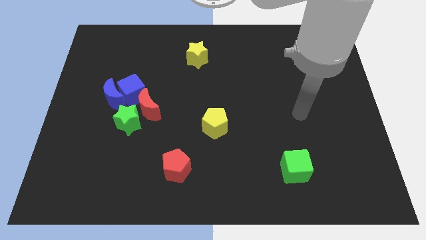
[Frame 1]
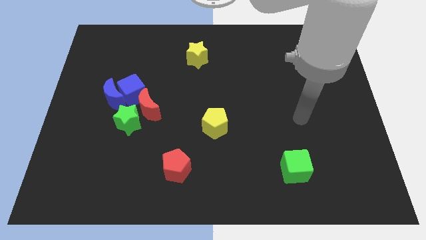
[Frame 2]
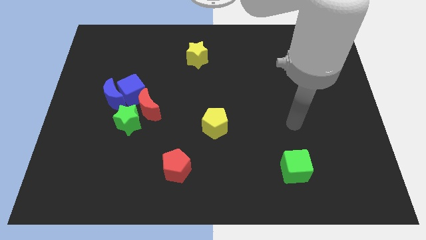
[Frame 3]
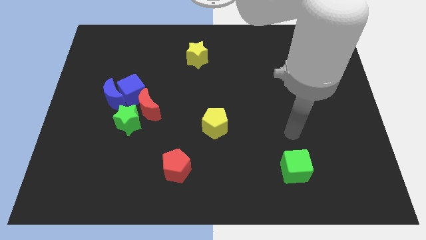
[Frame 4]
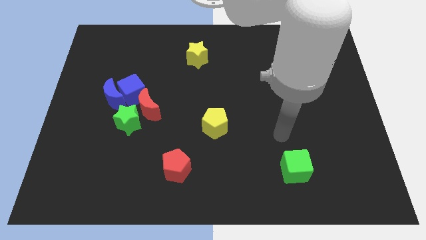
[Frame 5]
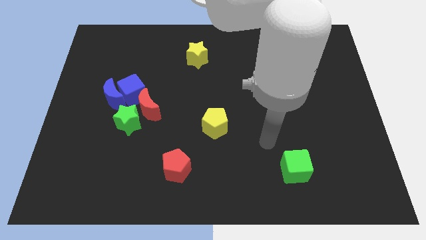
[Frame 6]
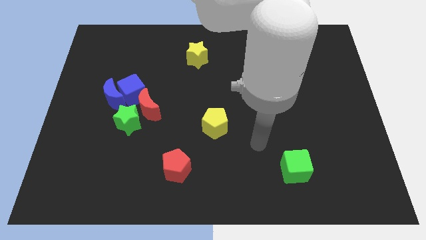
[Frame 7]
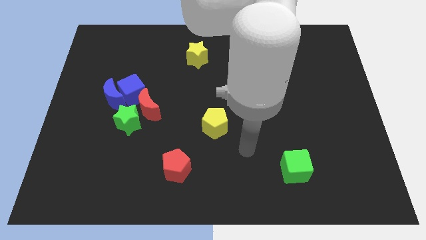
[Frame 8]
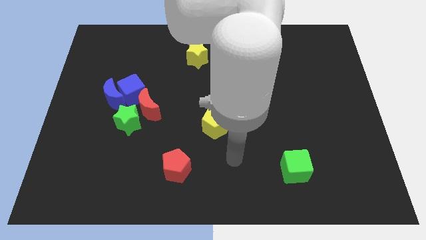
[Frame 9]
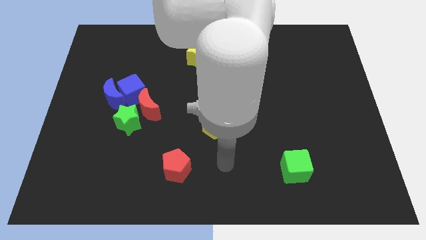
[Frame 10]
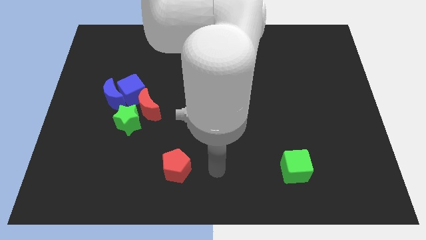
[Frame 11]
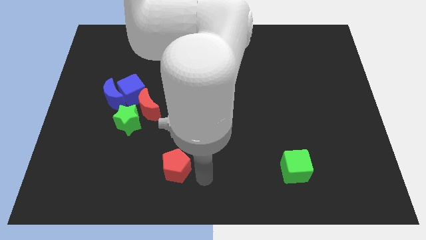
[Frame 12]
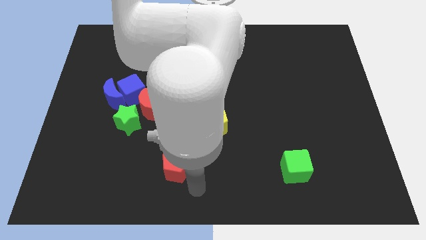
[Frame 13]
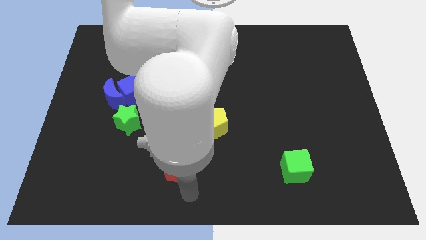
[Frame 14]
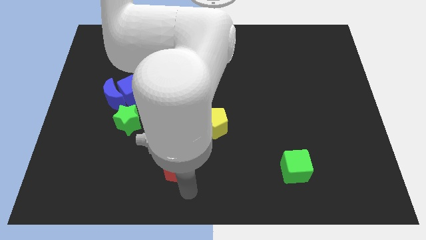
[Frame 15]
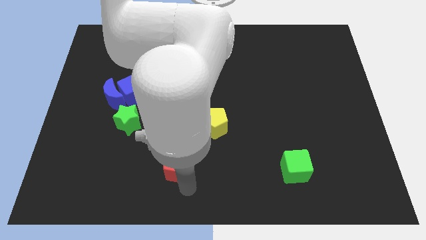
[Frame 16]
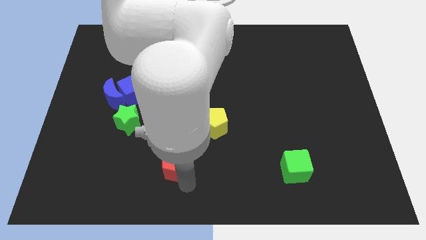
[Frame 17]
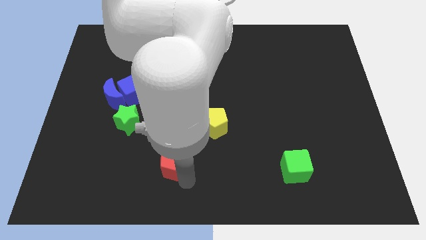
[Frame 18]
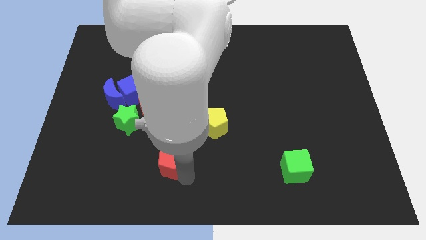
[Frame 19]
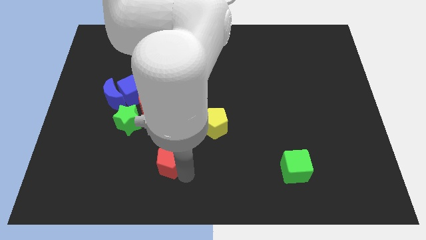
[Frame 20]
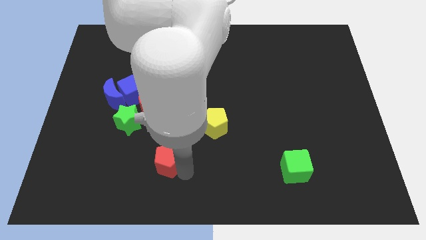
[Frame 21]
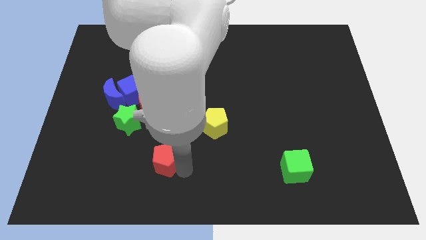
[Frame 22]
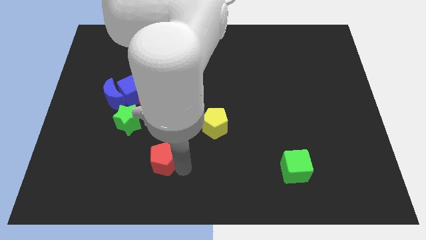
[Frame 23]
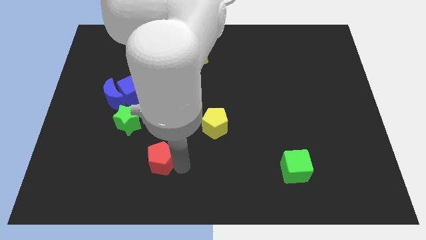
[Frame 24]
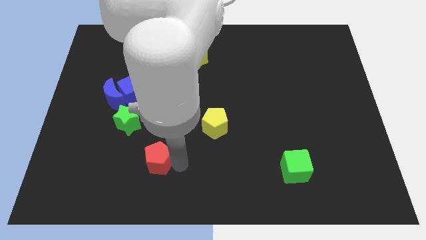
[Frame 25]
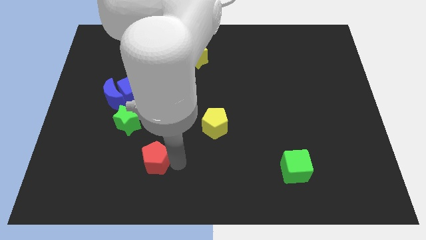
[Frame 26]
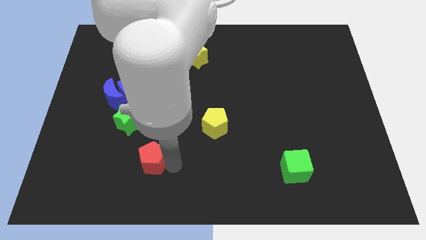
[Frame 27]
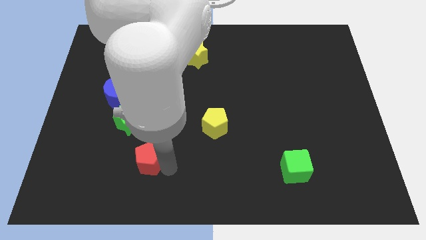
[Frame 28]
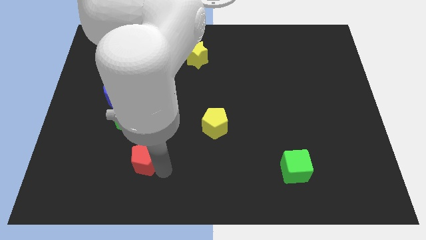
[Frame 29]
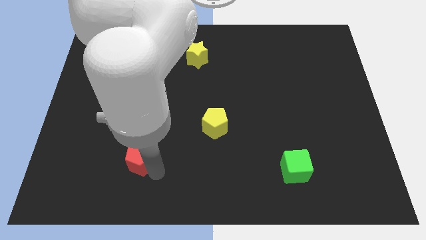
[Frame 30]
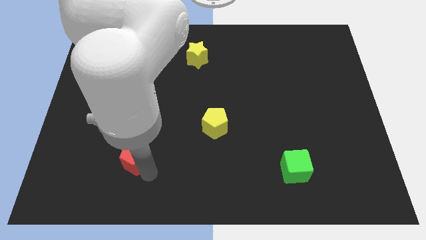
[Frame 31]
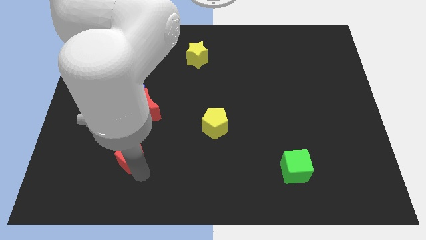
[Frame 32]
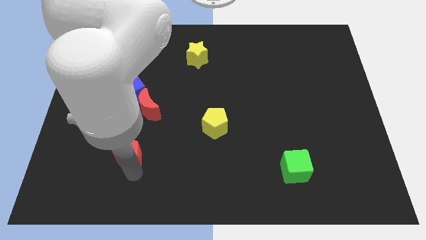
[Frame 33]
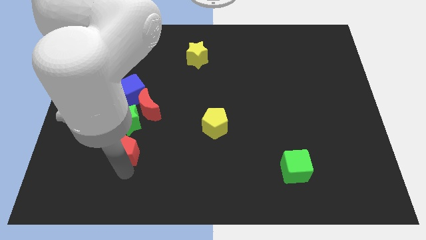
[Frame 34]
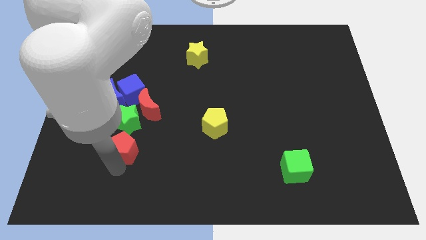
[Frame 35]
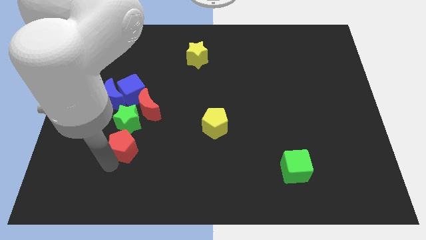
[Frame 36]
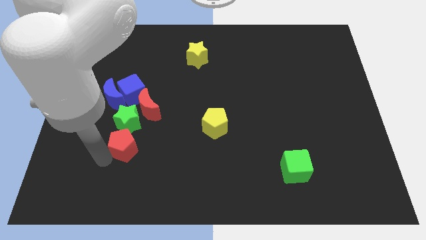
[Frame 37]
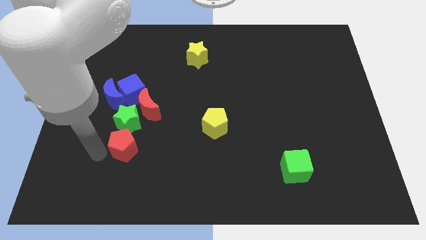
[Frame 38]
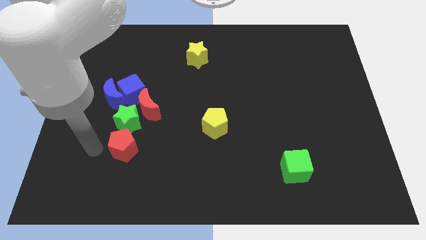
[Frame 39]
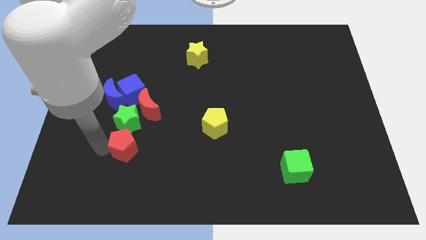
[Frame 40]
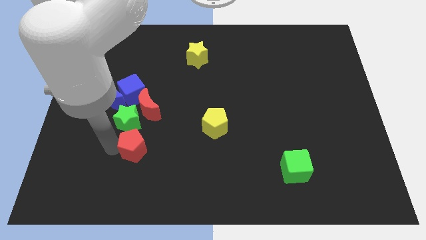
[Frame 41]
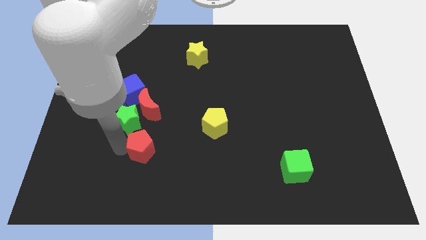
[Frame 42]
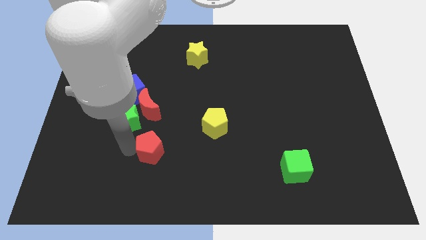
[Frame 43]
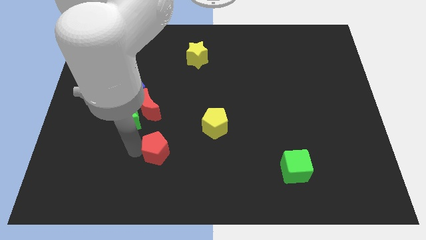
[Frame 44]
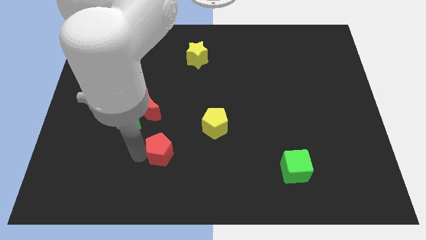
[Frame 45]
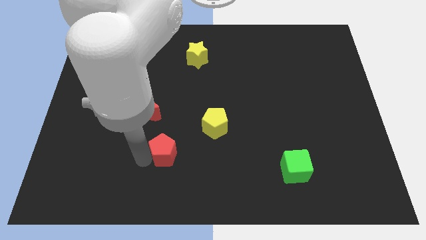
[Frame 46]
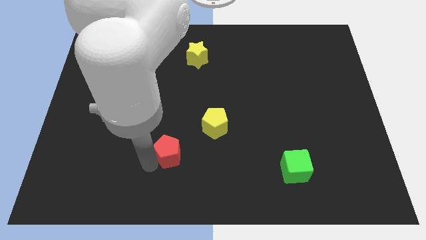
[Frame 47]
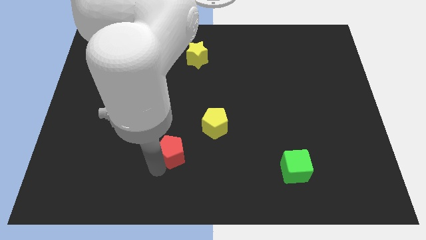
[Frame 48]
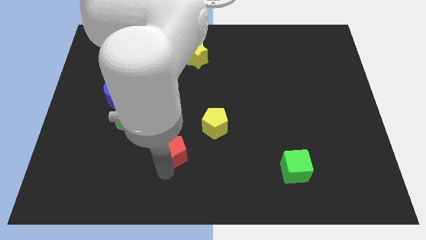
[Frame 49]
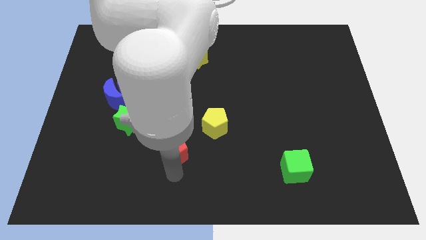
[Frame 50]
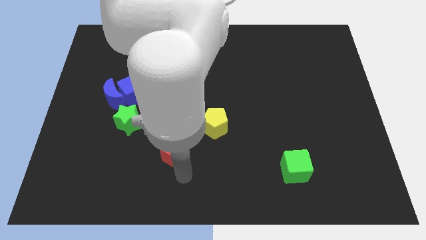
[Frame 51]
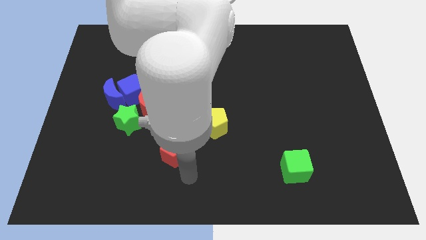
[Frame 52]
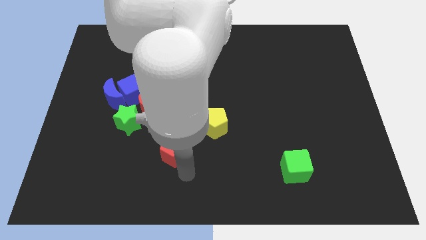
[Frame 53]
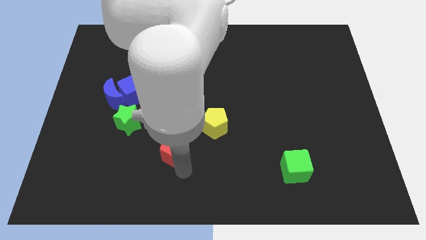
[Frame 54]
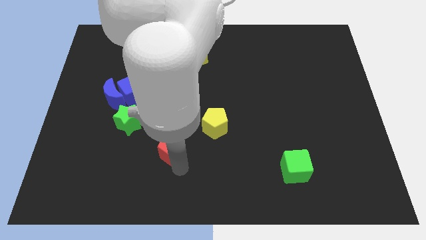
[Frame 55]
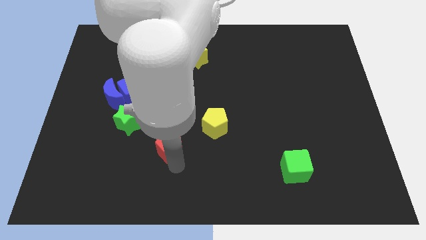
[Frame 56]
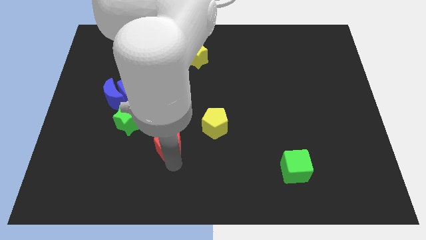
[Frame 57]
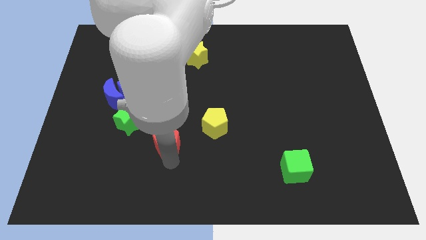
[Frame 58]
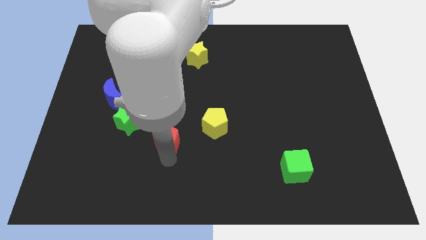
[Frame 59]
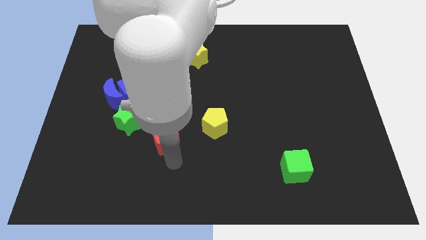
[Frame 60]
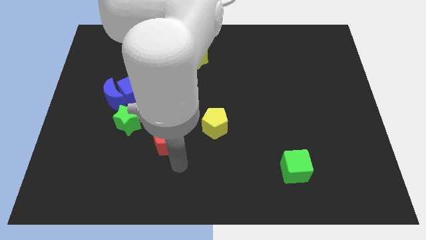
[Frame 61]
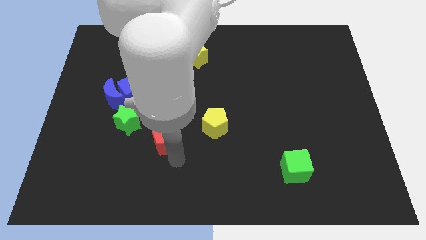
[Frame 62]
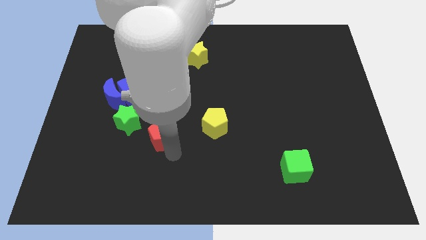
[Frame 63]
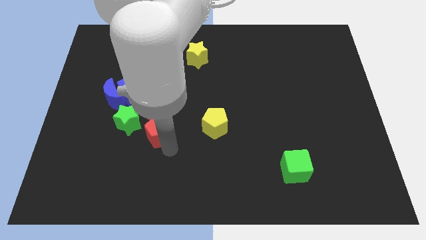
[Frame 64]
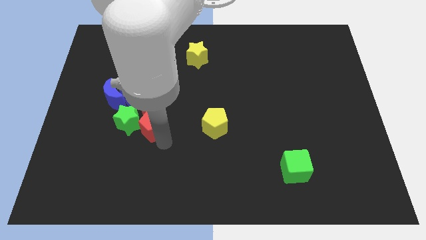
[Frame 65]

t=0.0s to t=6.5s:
move the red pentagon close to the red moon

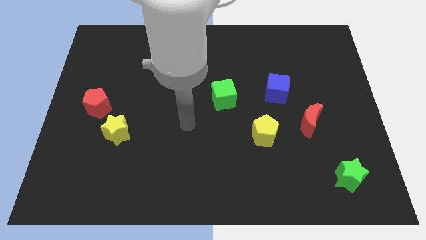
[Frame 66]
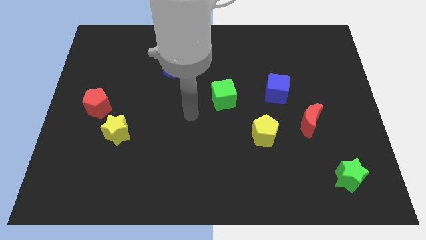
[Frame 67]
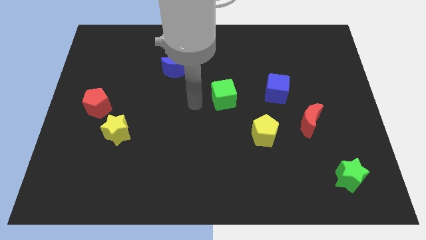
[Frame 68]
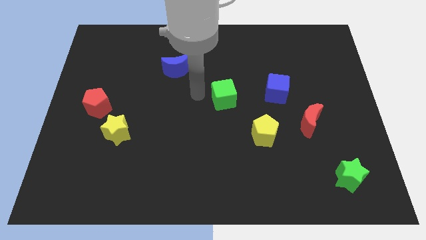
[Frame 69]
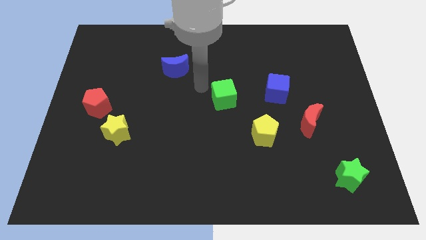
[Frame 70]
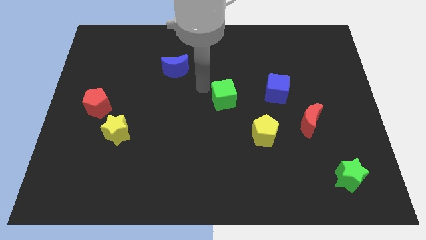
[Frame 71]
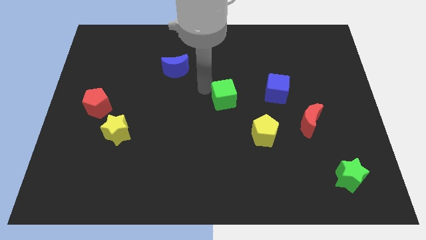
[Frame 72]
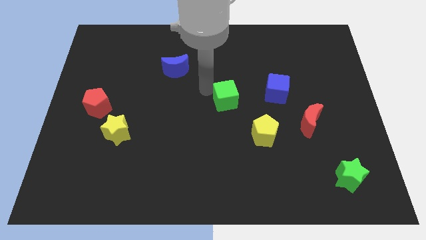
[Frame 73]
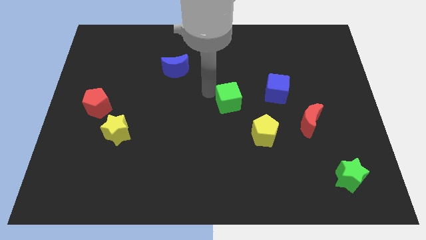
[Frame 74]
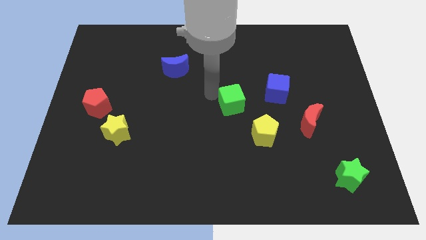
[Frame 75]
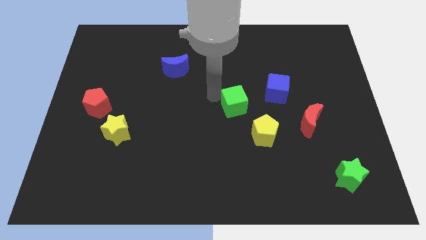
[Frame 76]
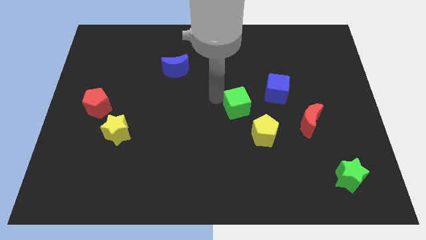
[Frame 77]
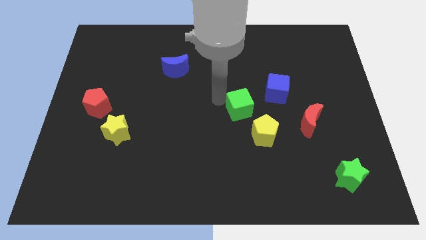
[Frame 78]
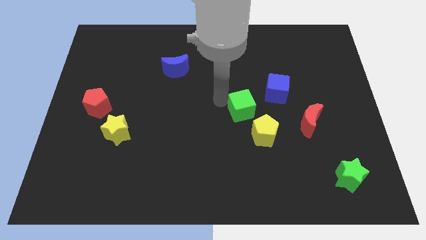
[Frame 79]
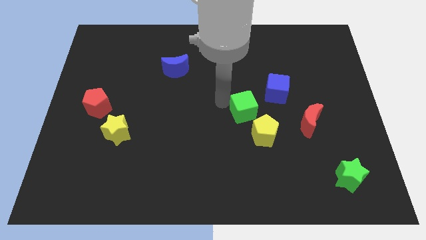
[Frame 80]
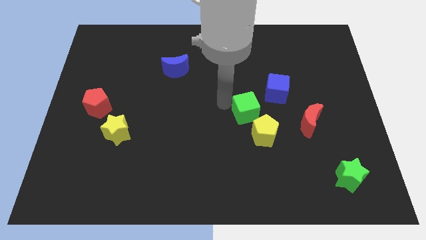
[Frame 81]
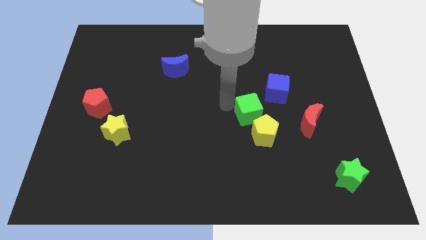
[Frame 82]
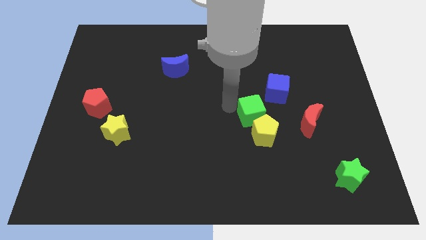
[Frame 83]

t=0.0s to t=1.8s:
put the green cube close to the yellow pentagon

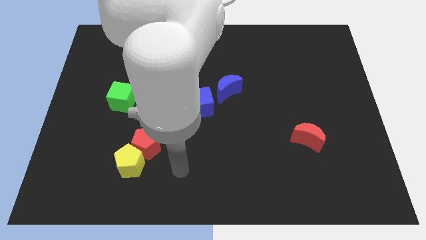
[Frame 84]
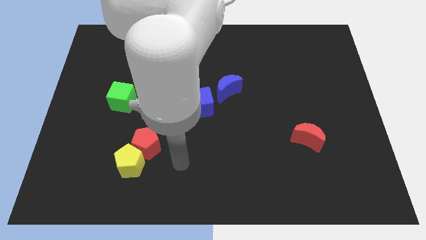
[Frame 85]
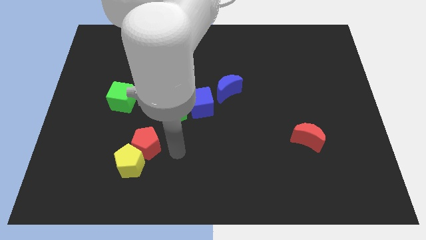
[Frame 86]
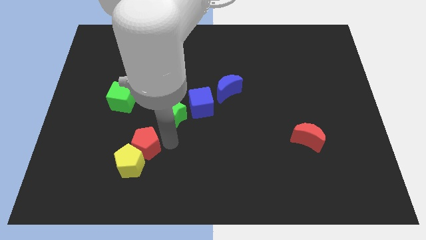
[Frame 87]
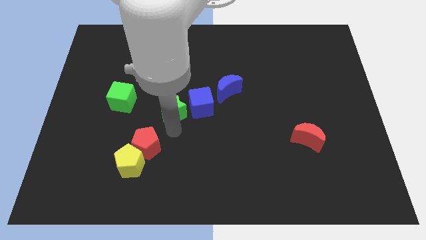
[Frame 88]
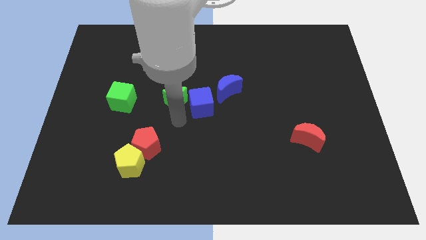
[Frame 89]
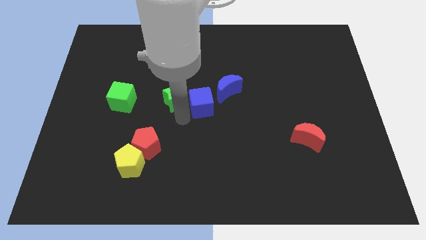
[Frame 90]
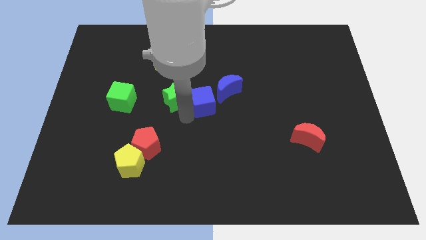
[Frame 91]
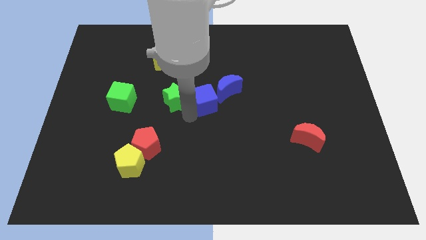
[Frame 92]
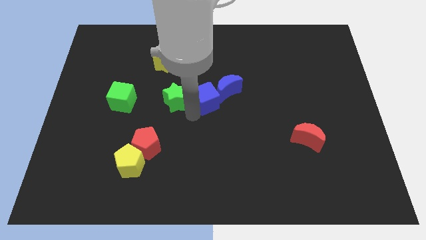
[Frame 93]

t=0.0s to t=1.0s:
slide the blue cube next to the blue moon
